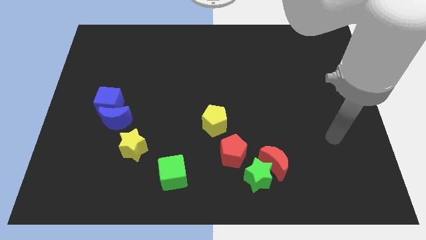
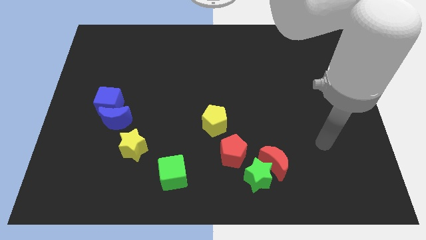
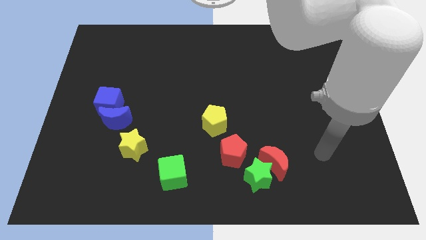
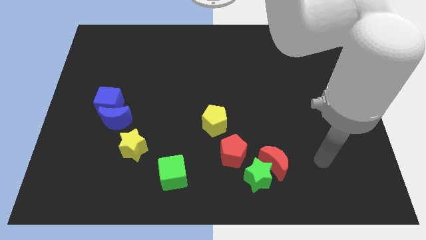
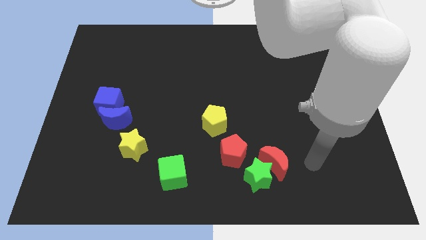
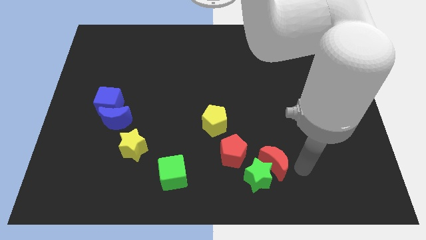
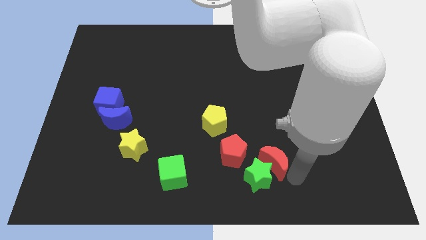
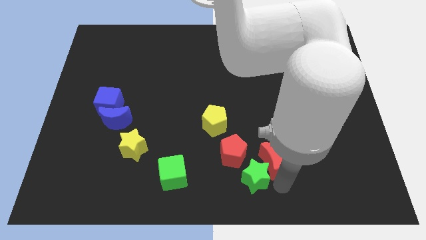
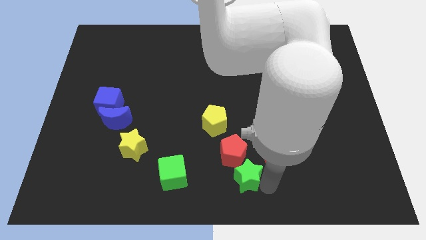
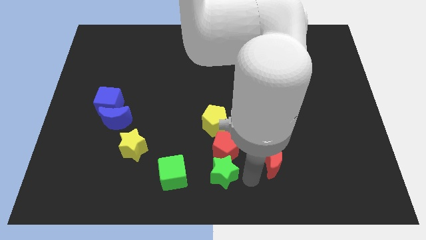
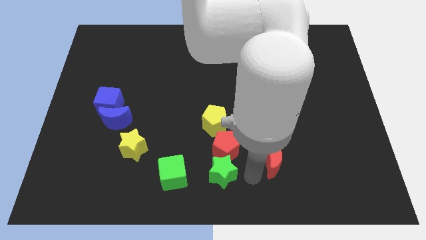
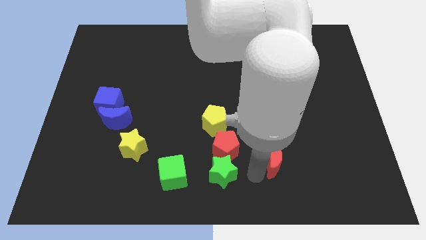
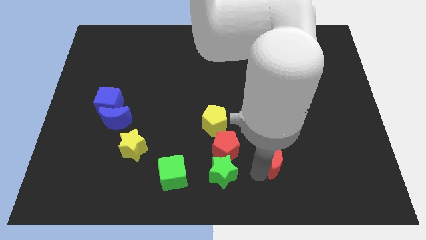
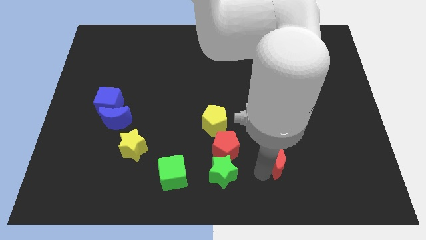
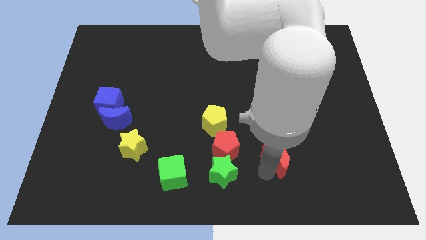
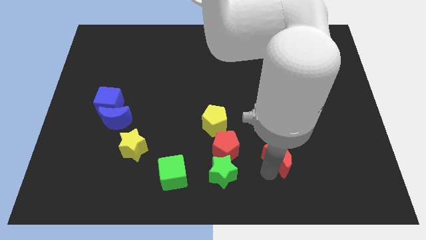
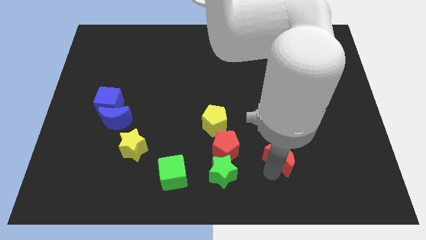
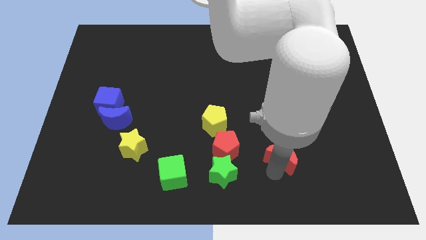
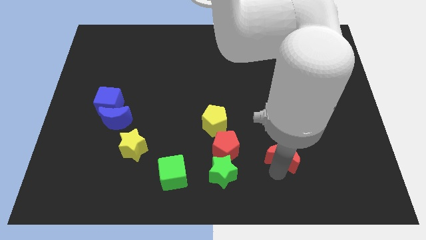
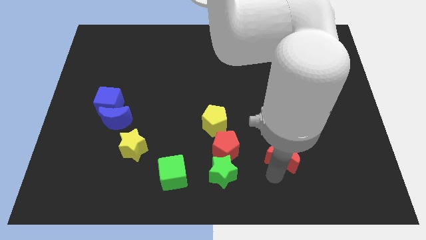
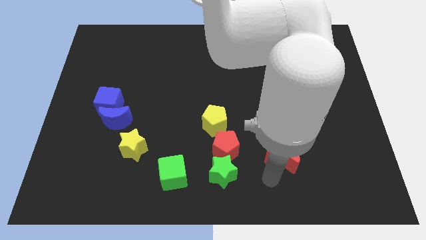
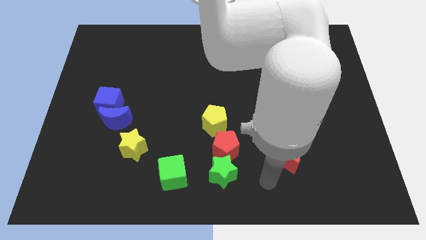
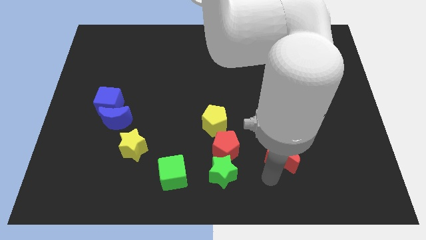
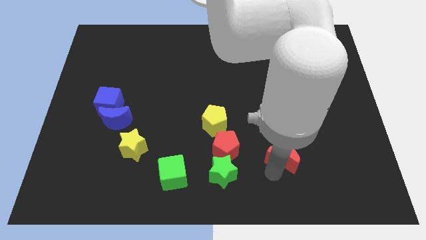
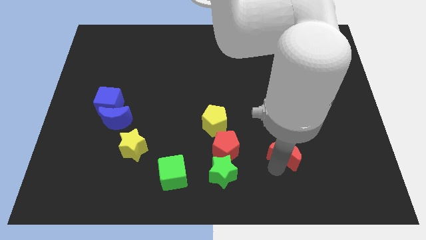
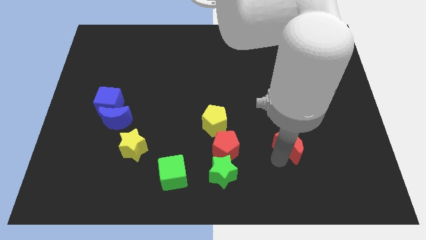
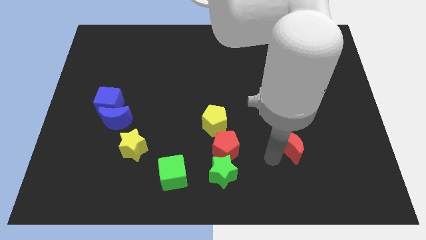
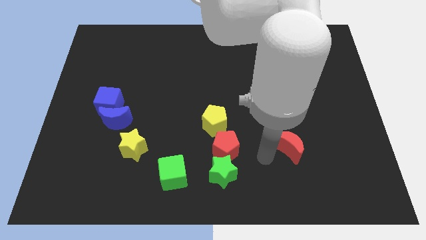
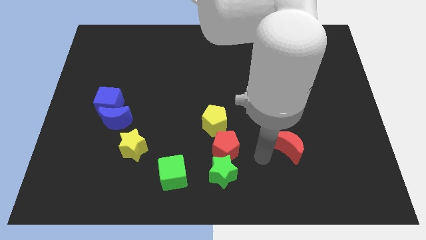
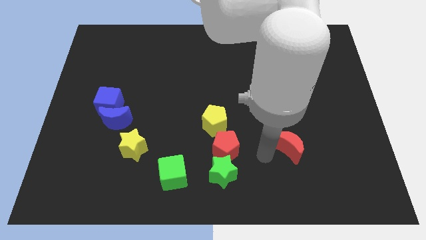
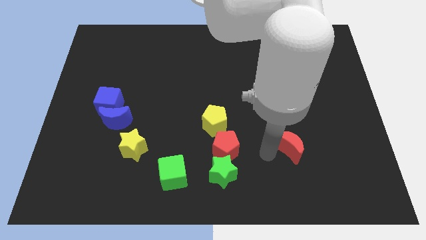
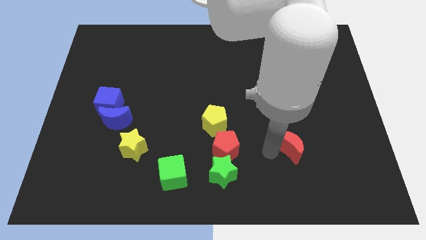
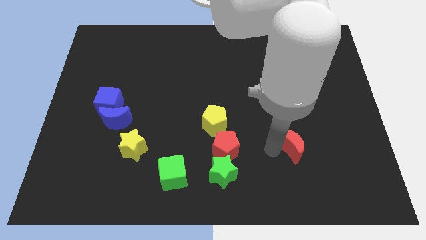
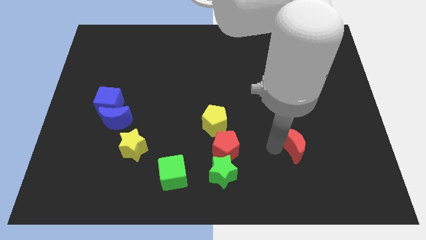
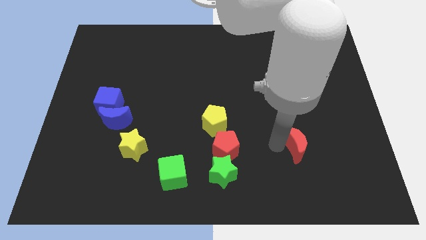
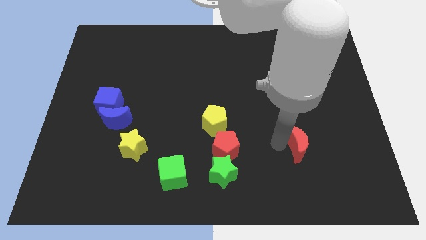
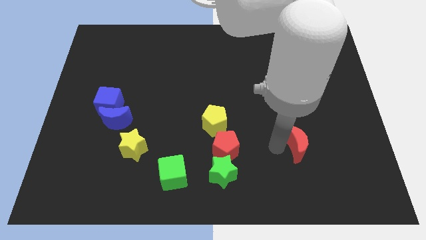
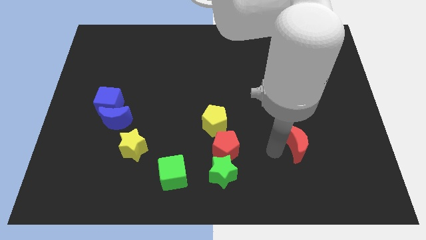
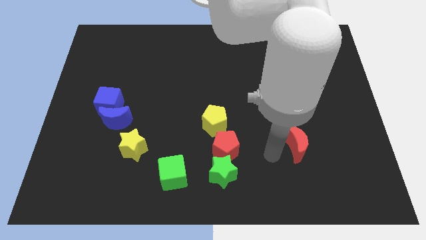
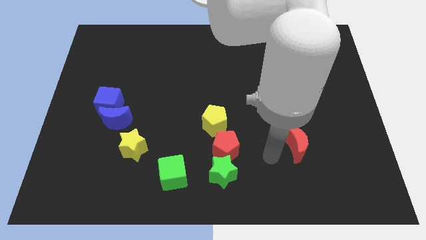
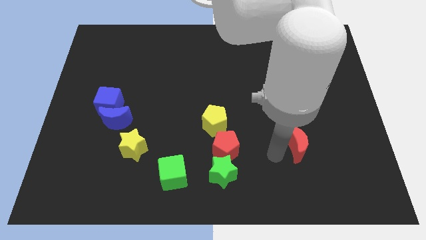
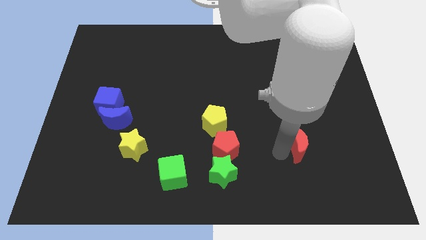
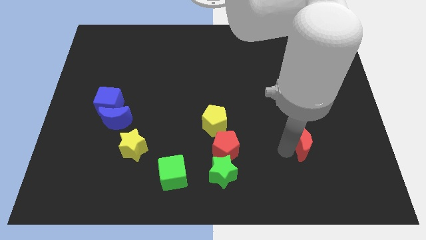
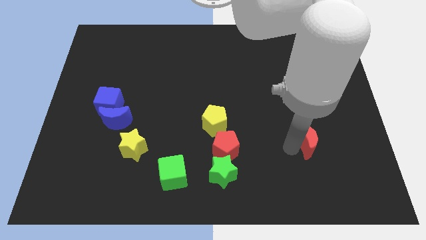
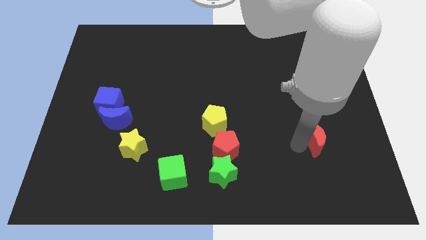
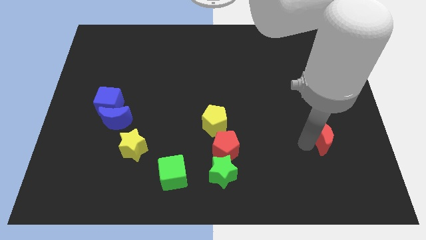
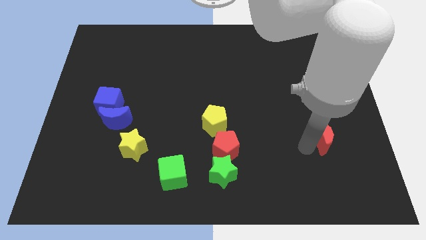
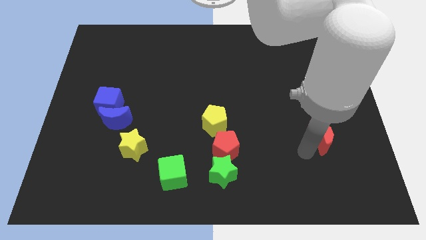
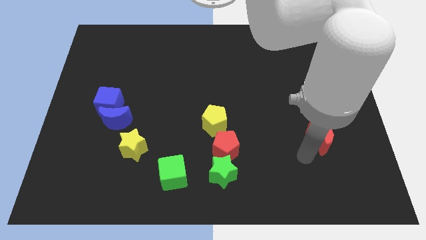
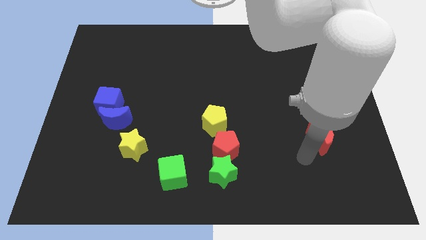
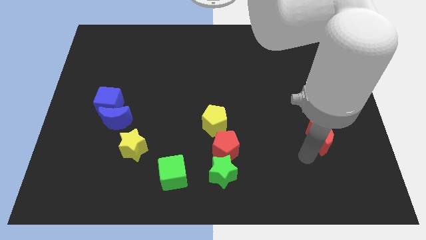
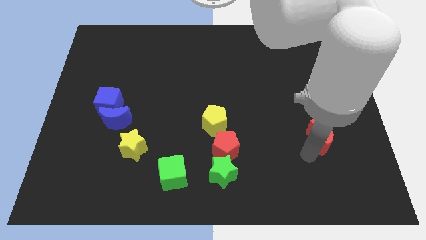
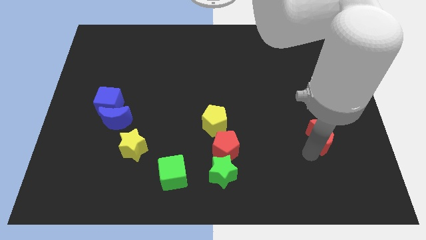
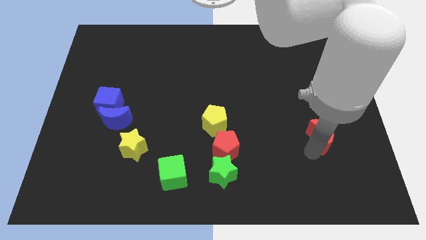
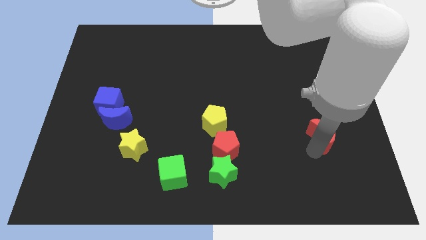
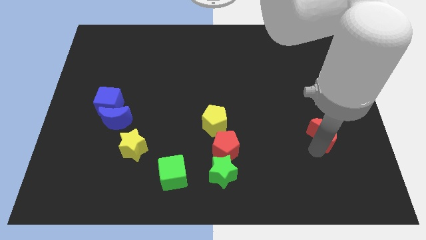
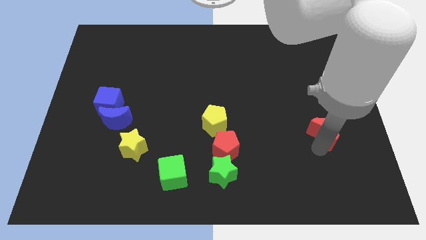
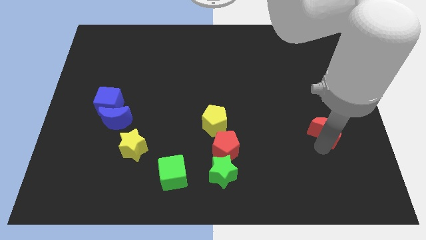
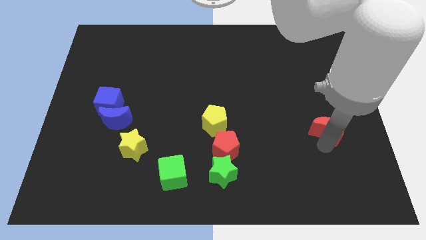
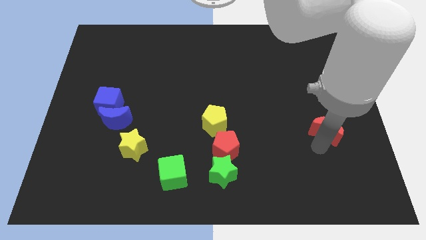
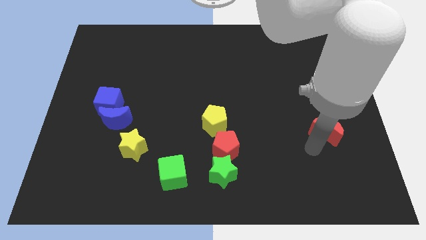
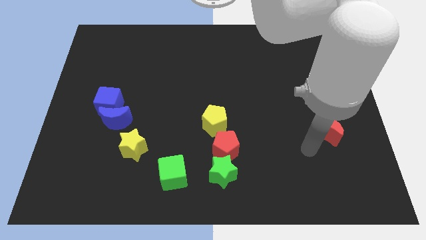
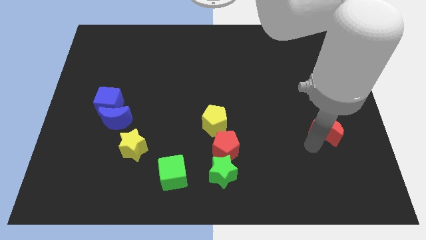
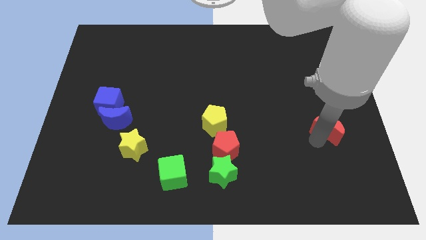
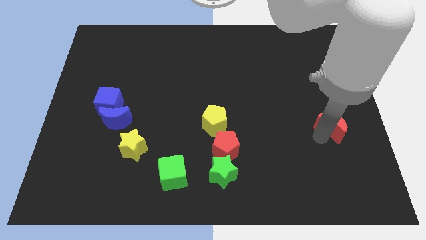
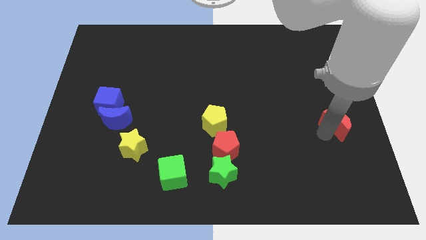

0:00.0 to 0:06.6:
push the red moon to the right side
